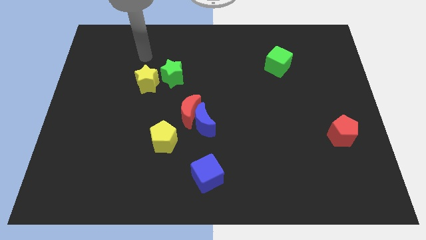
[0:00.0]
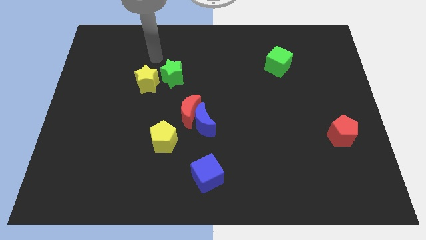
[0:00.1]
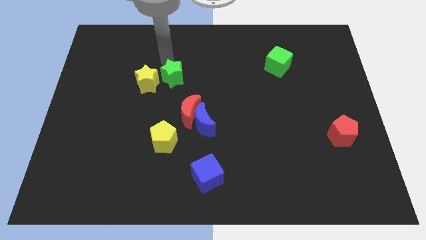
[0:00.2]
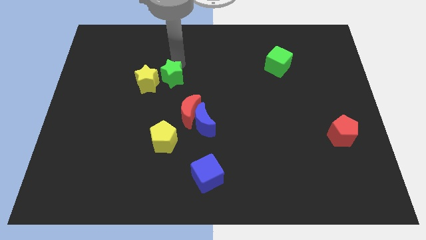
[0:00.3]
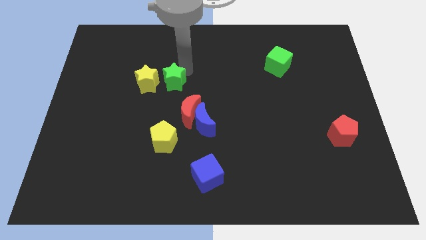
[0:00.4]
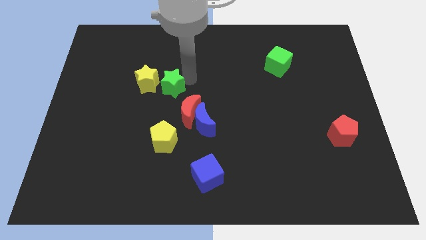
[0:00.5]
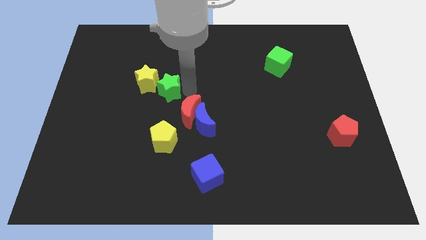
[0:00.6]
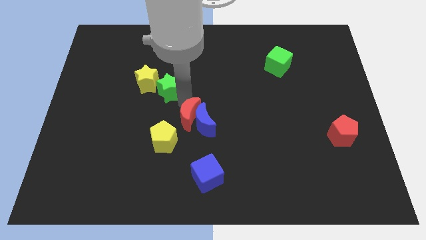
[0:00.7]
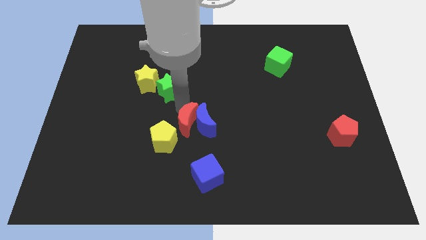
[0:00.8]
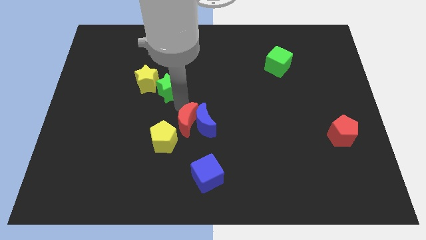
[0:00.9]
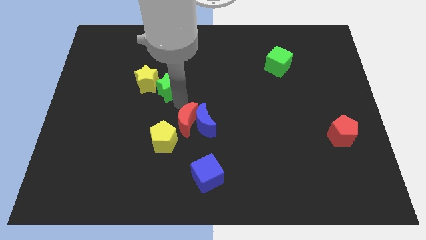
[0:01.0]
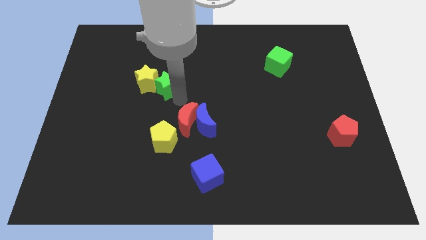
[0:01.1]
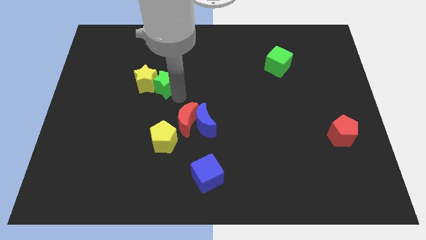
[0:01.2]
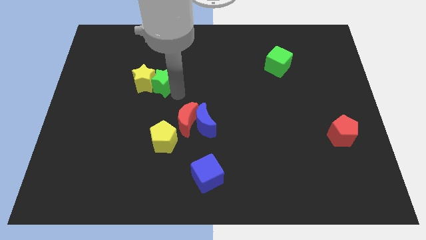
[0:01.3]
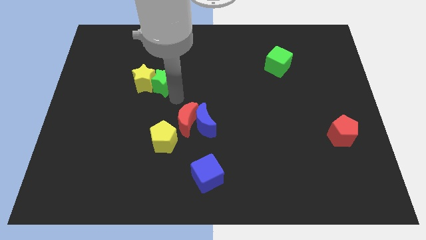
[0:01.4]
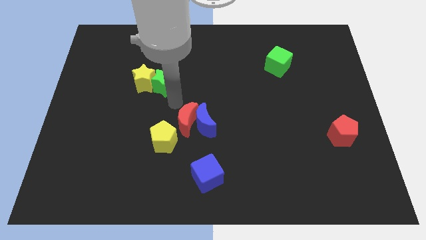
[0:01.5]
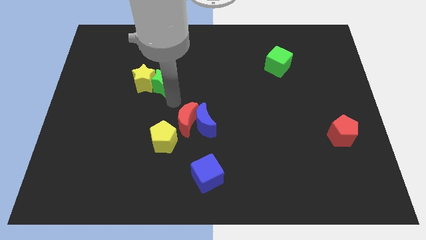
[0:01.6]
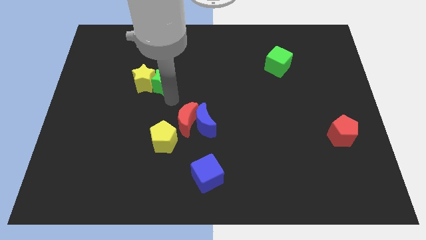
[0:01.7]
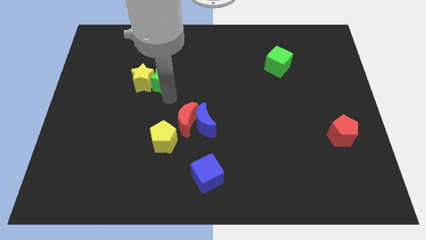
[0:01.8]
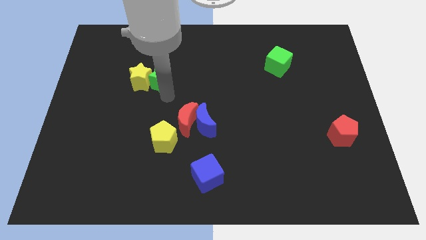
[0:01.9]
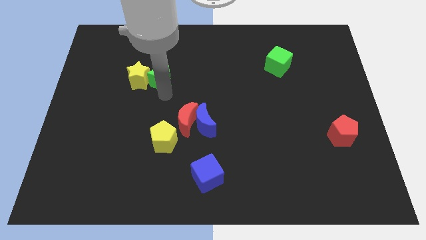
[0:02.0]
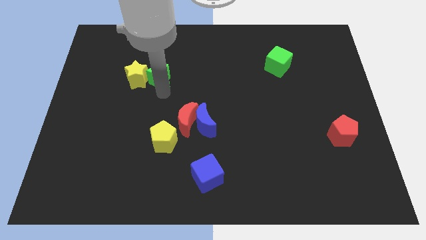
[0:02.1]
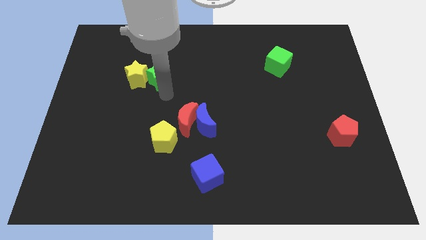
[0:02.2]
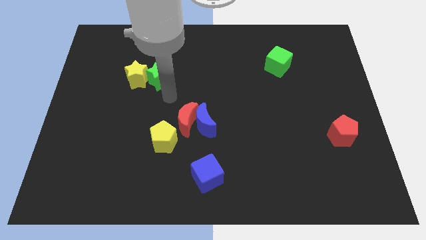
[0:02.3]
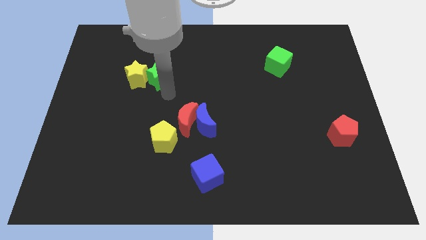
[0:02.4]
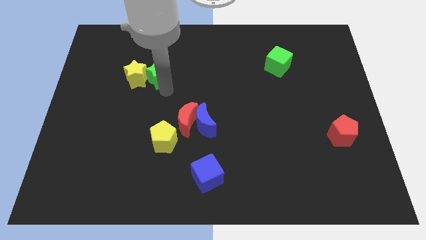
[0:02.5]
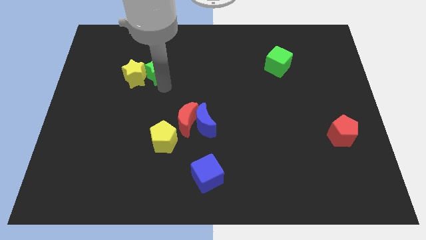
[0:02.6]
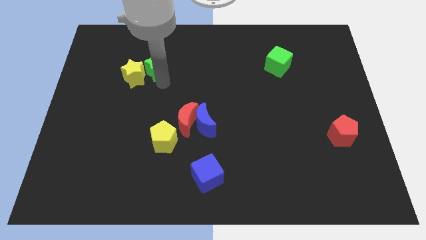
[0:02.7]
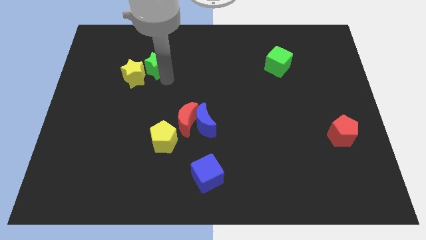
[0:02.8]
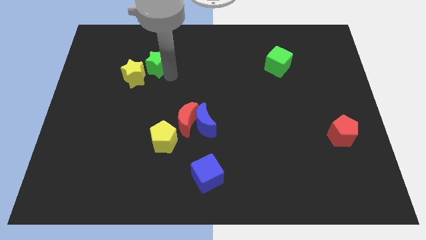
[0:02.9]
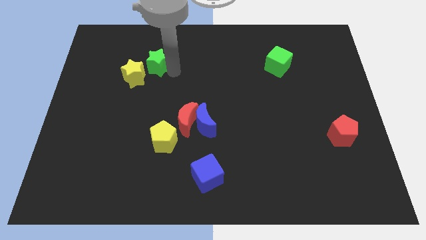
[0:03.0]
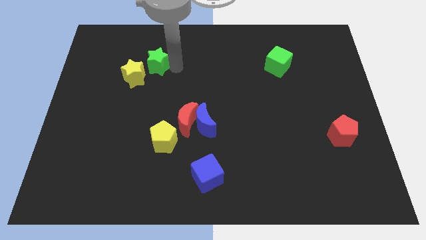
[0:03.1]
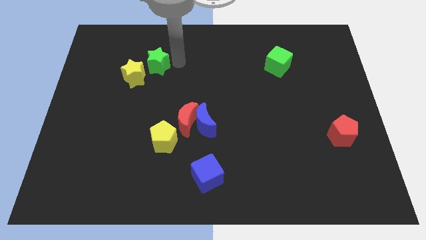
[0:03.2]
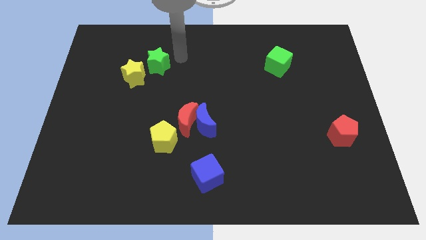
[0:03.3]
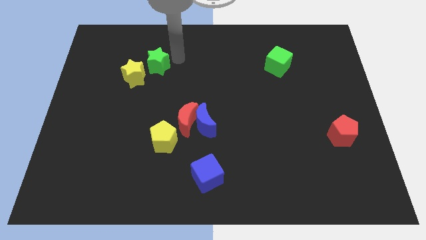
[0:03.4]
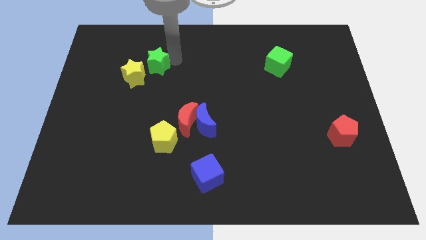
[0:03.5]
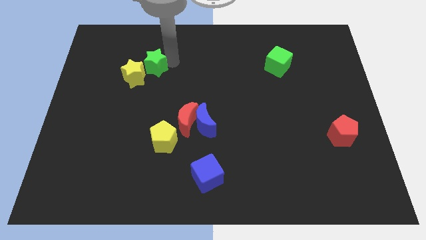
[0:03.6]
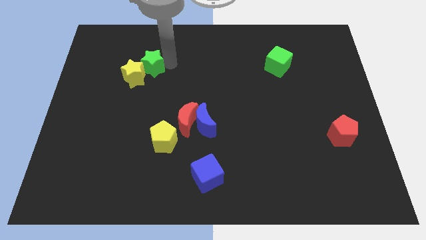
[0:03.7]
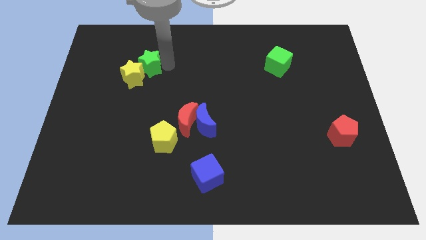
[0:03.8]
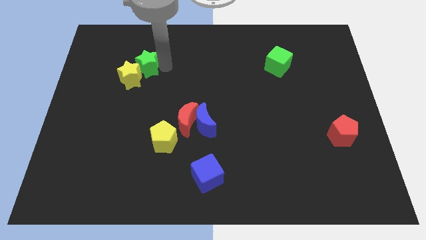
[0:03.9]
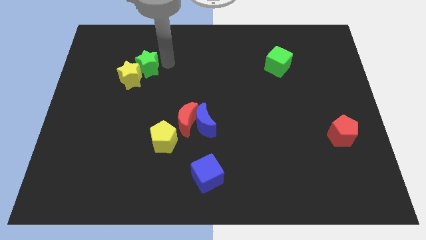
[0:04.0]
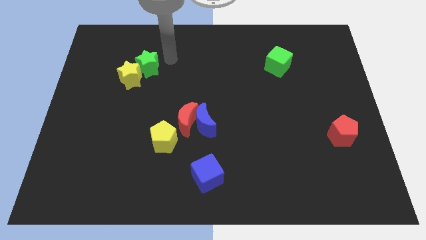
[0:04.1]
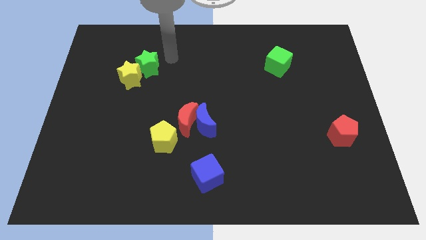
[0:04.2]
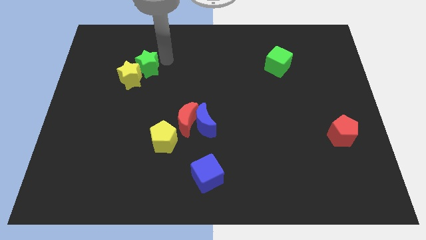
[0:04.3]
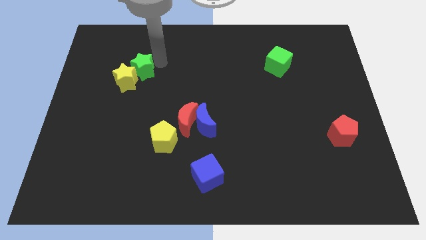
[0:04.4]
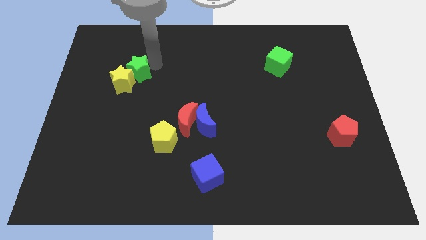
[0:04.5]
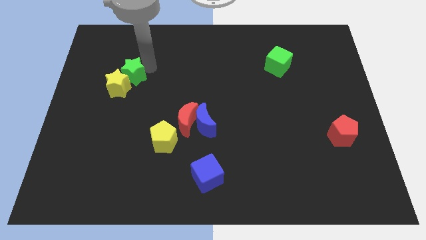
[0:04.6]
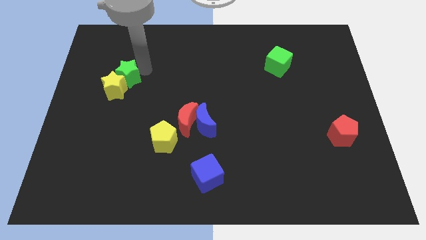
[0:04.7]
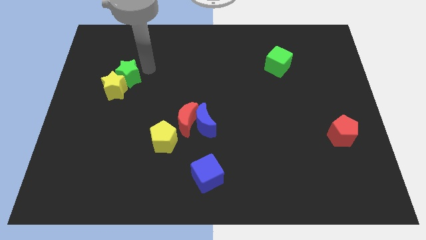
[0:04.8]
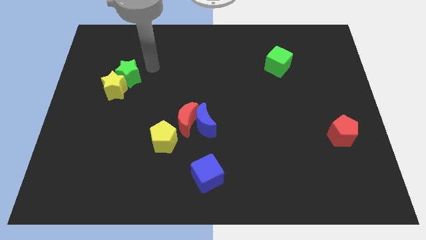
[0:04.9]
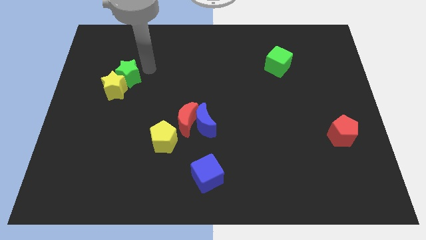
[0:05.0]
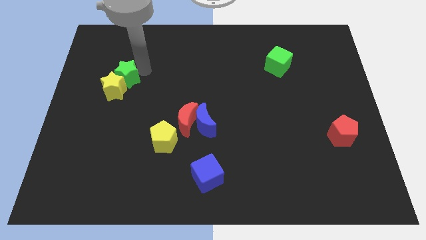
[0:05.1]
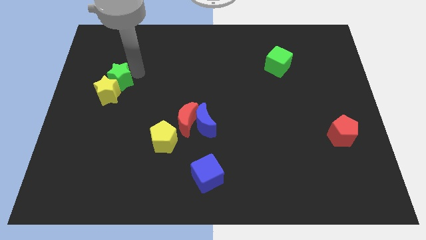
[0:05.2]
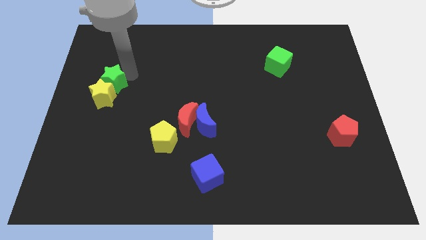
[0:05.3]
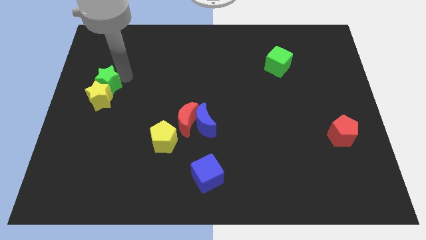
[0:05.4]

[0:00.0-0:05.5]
move the green star to the left side
